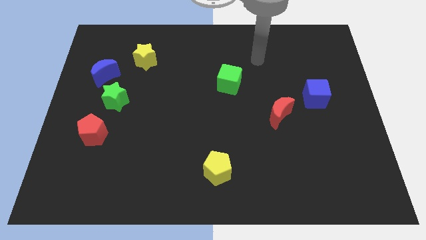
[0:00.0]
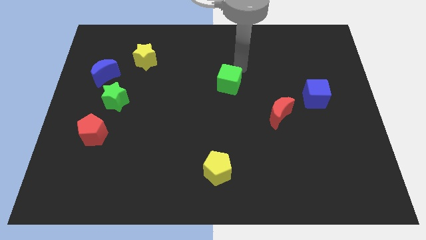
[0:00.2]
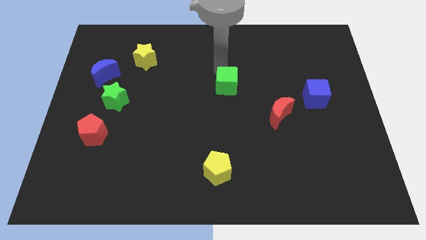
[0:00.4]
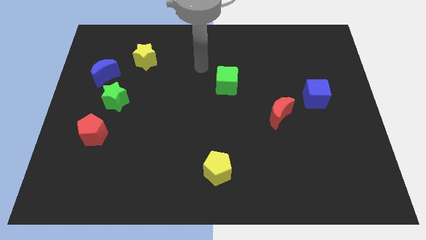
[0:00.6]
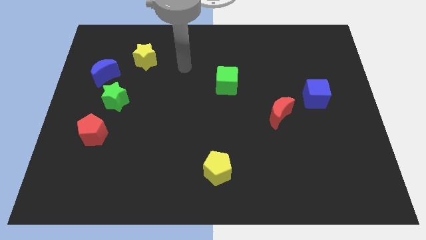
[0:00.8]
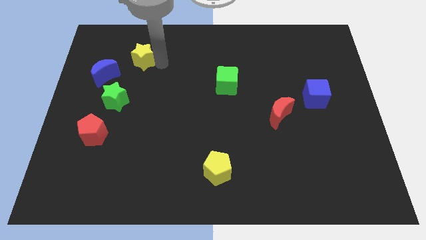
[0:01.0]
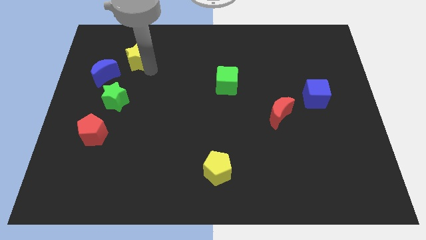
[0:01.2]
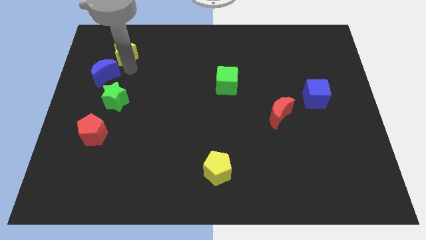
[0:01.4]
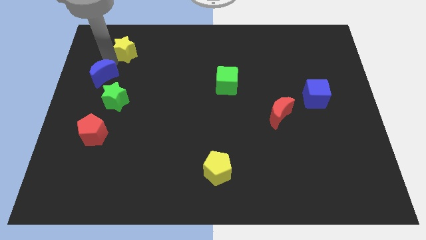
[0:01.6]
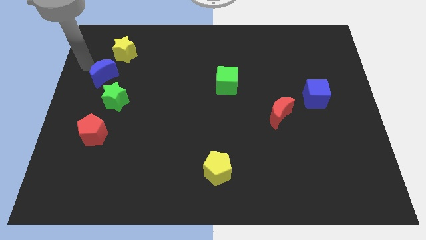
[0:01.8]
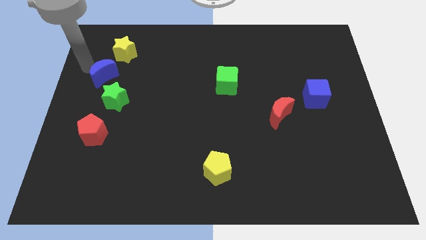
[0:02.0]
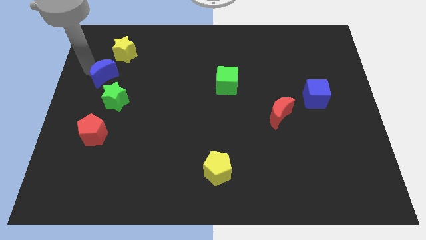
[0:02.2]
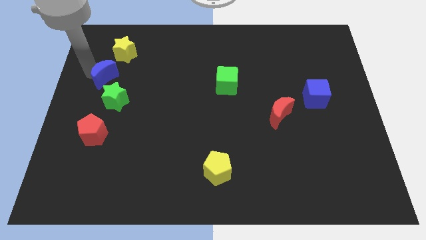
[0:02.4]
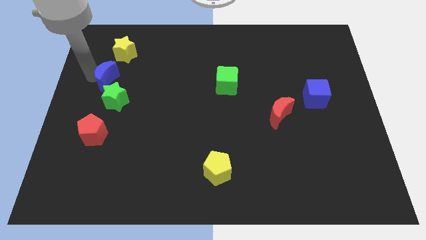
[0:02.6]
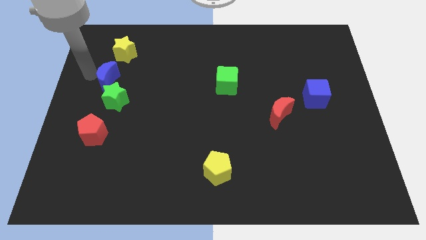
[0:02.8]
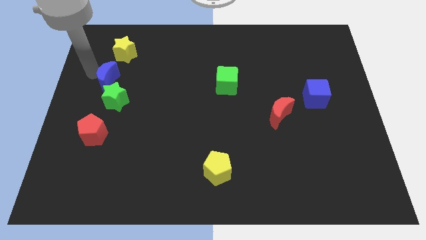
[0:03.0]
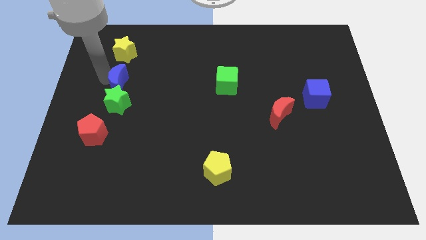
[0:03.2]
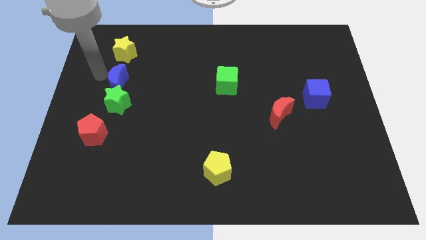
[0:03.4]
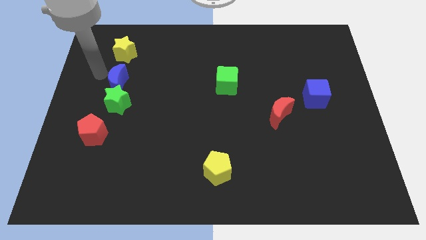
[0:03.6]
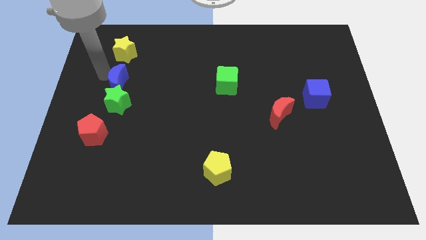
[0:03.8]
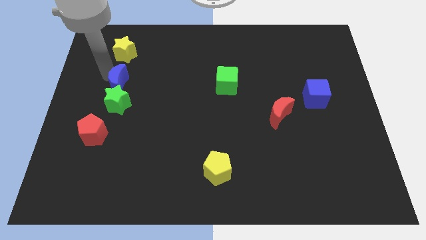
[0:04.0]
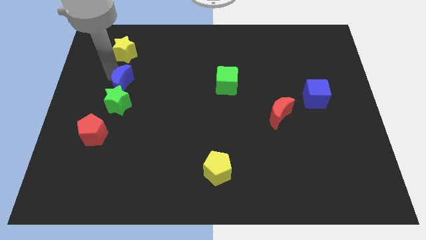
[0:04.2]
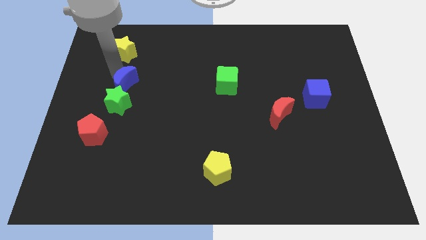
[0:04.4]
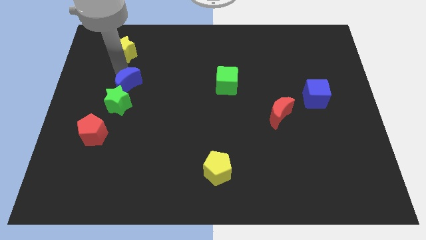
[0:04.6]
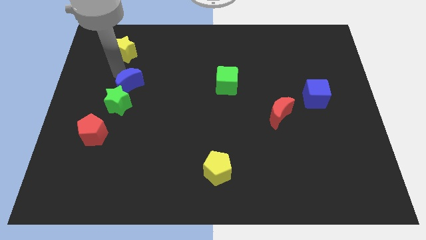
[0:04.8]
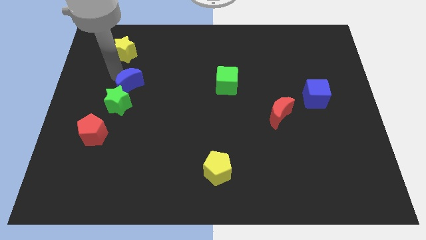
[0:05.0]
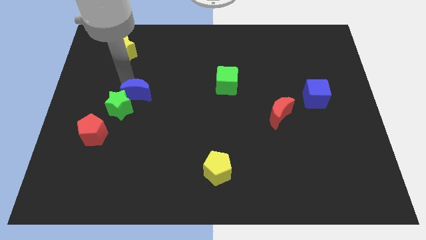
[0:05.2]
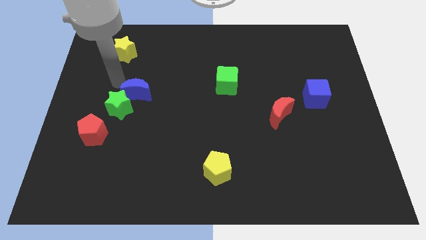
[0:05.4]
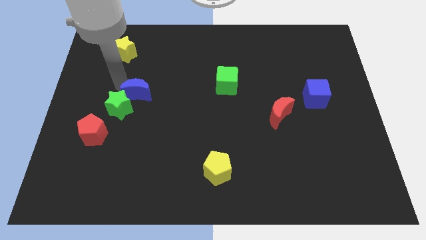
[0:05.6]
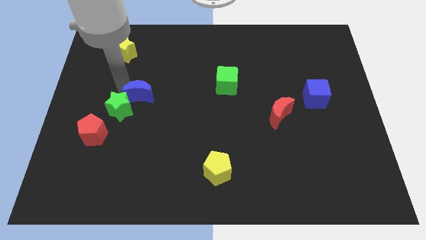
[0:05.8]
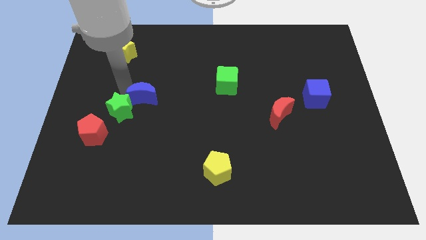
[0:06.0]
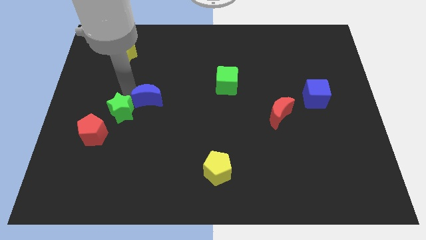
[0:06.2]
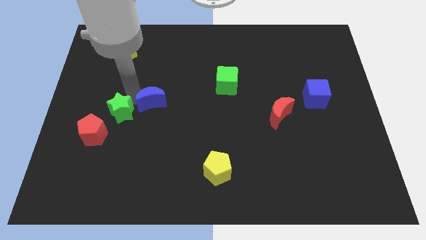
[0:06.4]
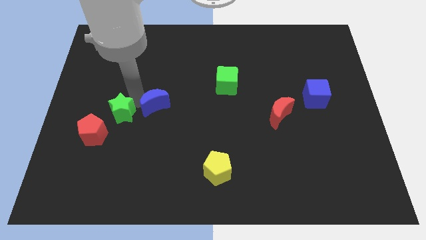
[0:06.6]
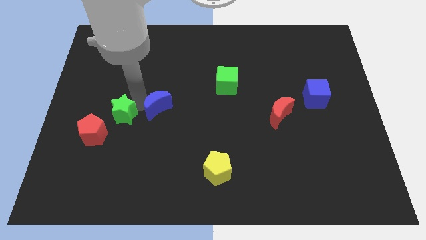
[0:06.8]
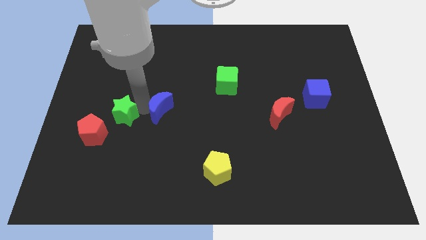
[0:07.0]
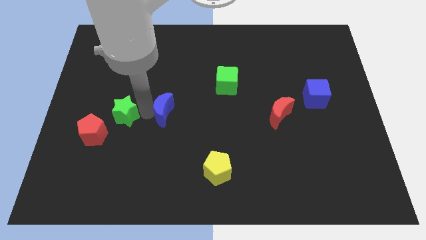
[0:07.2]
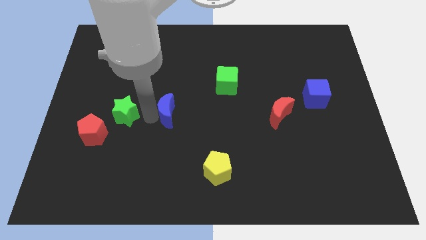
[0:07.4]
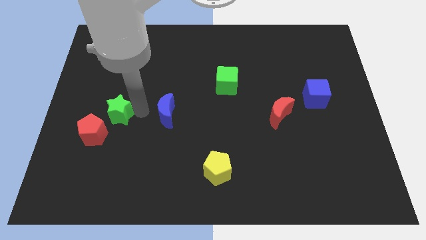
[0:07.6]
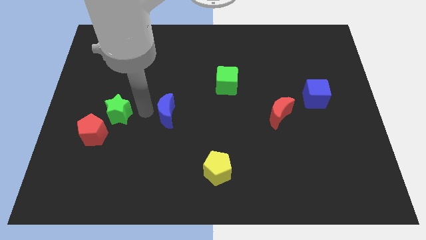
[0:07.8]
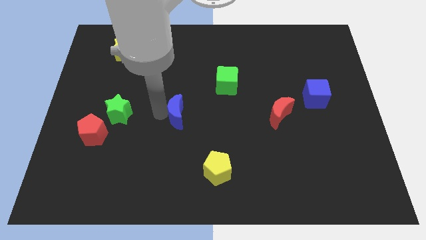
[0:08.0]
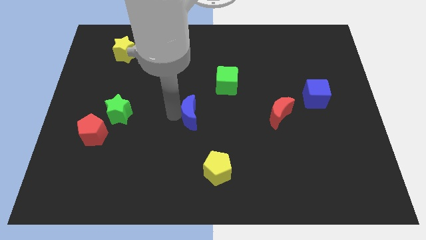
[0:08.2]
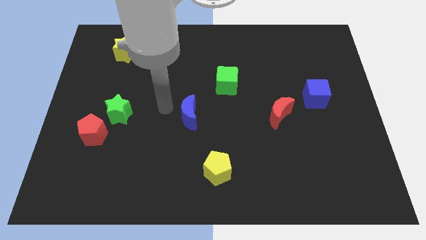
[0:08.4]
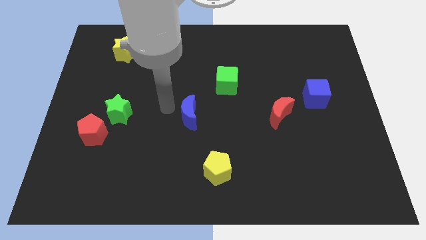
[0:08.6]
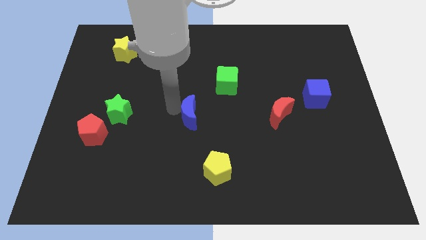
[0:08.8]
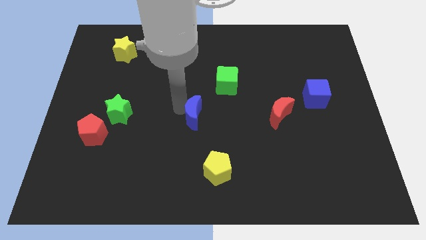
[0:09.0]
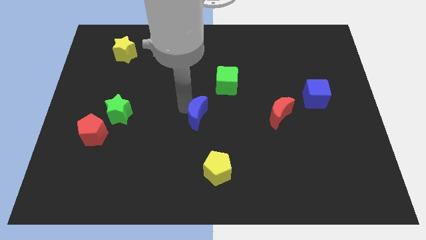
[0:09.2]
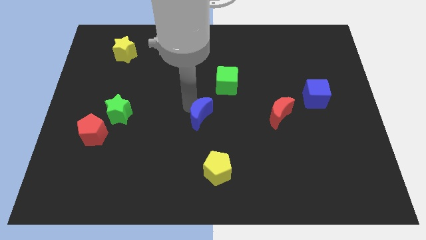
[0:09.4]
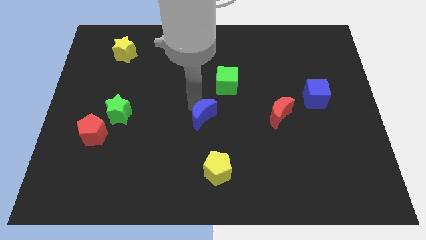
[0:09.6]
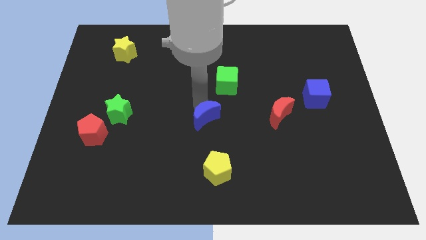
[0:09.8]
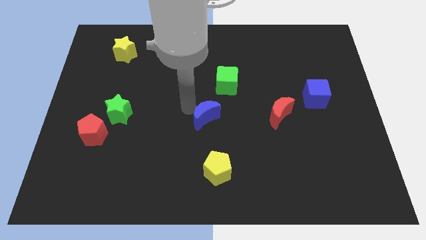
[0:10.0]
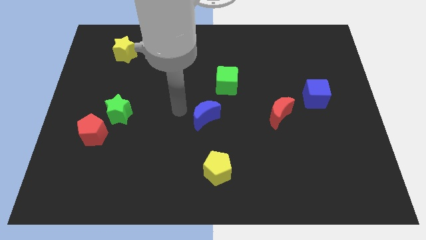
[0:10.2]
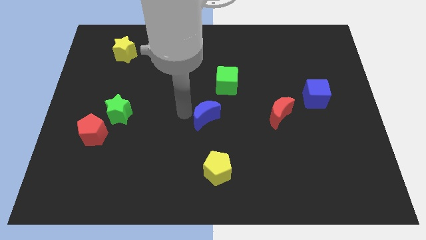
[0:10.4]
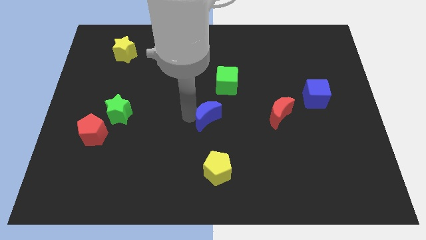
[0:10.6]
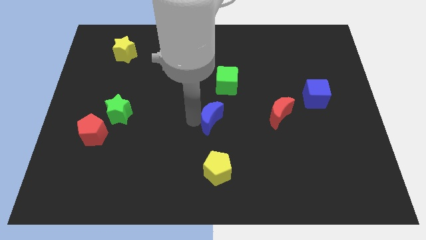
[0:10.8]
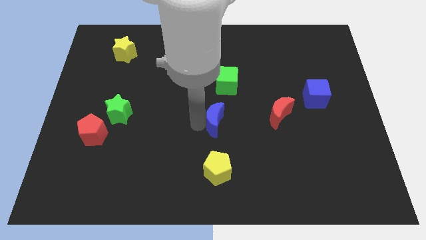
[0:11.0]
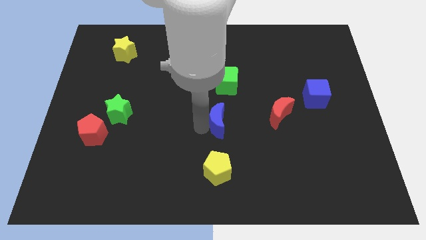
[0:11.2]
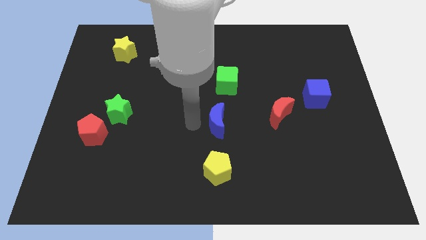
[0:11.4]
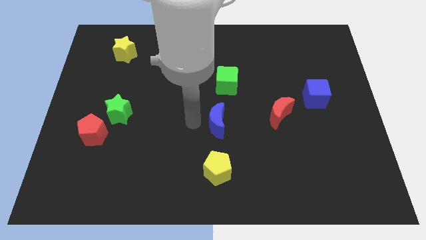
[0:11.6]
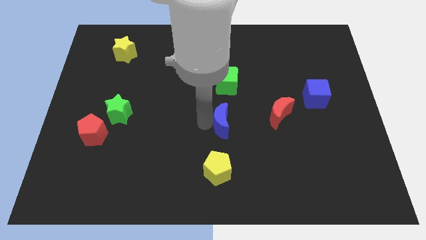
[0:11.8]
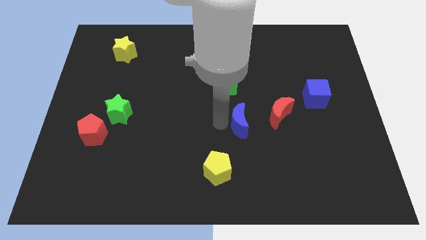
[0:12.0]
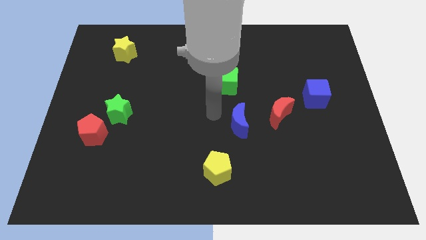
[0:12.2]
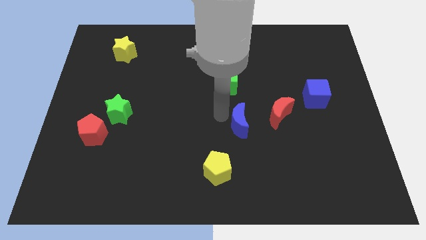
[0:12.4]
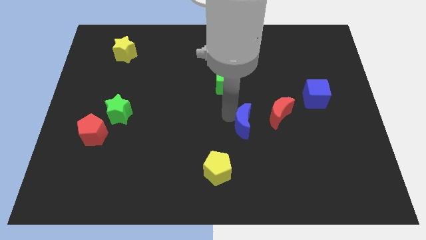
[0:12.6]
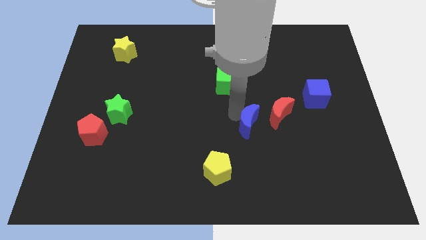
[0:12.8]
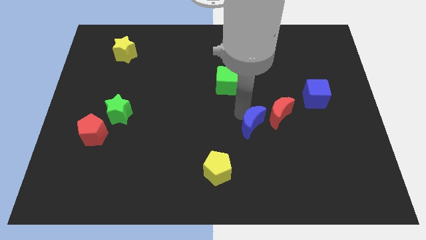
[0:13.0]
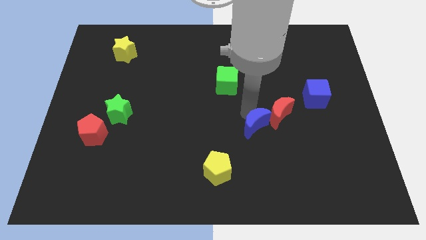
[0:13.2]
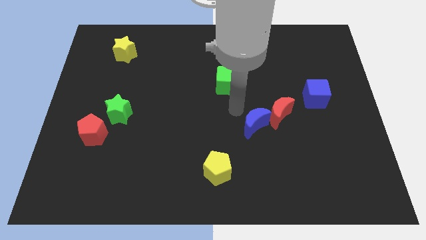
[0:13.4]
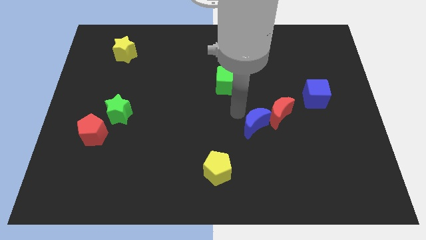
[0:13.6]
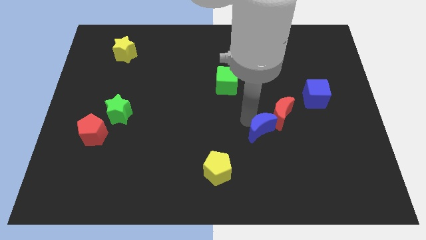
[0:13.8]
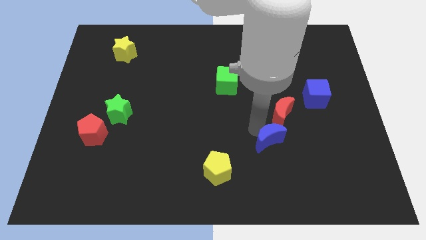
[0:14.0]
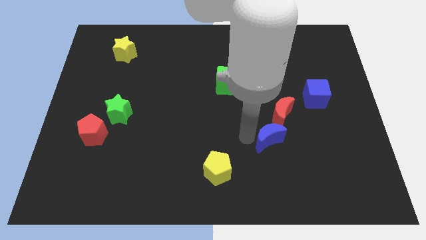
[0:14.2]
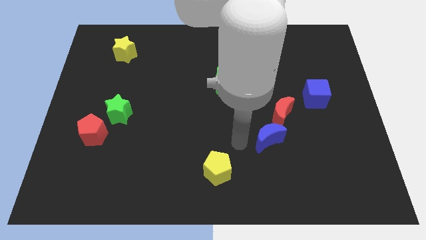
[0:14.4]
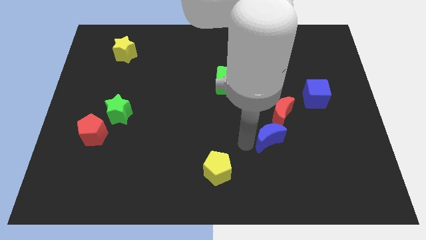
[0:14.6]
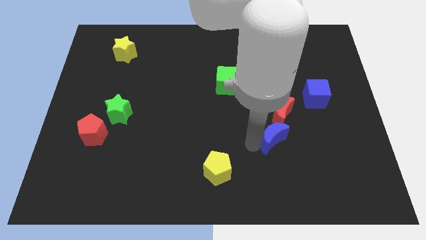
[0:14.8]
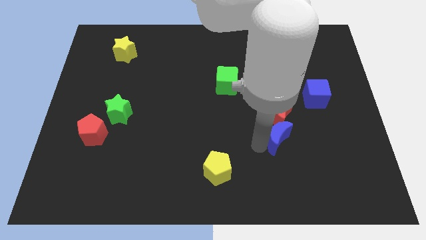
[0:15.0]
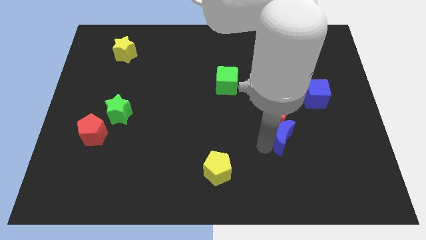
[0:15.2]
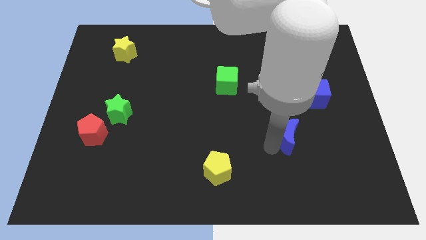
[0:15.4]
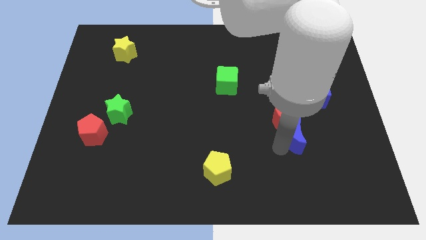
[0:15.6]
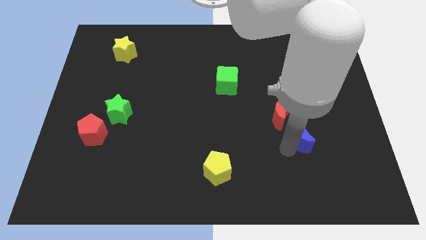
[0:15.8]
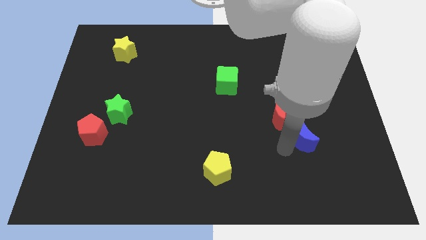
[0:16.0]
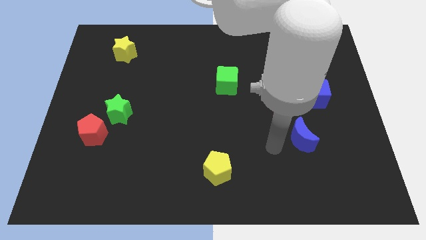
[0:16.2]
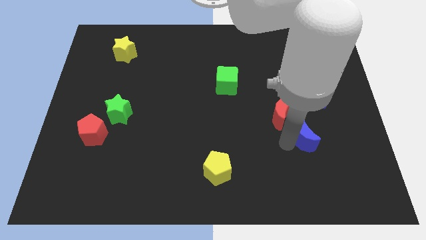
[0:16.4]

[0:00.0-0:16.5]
slide the blue moon to the bottom of the blue cube
